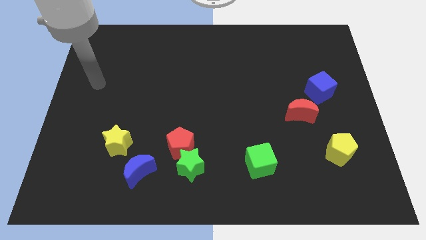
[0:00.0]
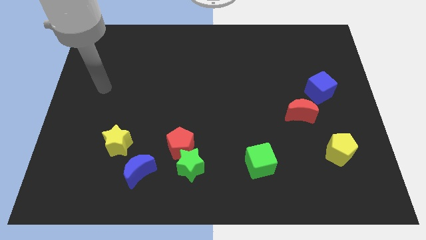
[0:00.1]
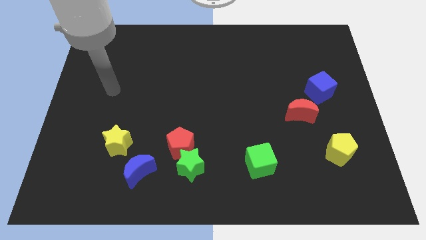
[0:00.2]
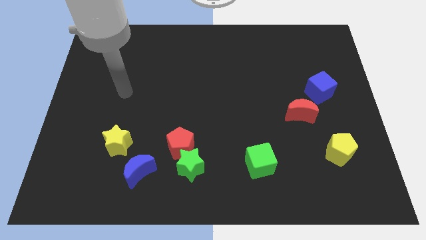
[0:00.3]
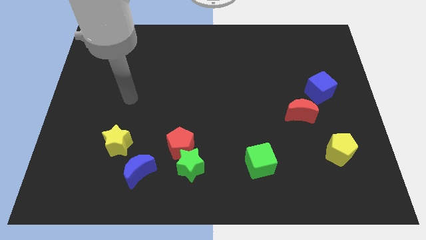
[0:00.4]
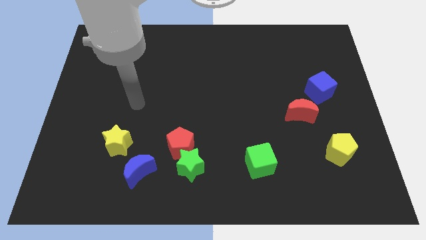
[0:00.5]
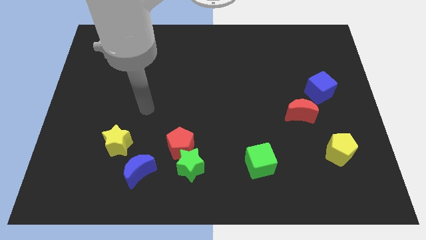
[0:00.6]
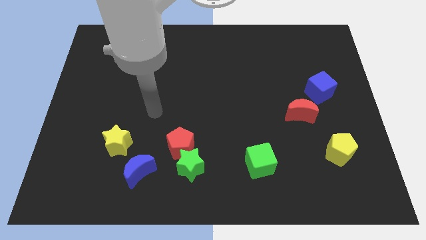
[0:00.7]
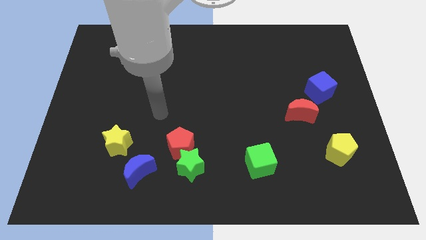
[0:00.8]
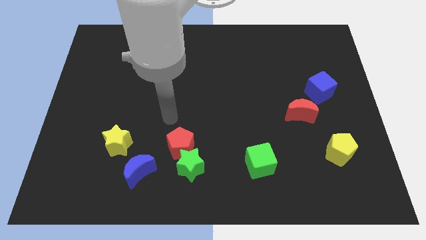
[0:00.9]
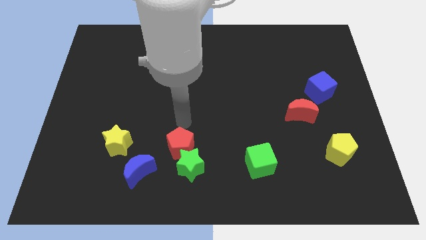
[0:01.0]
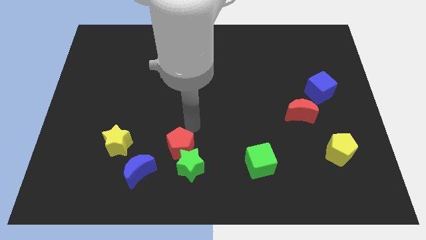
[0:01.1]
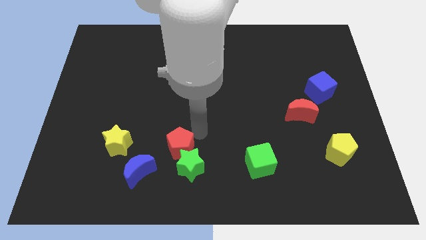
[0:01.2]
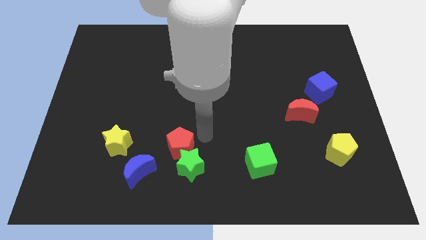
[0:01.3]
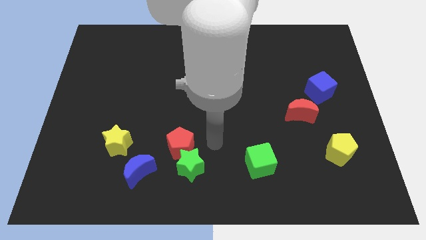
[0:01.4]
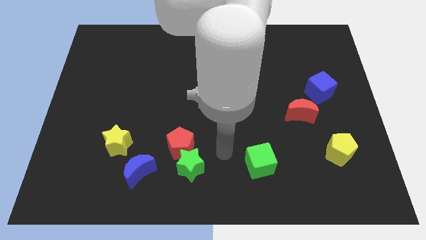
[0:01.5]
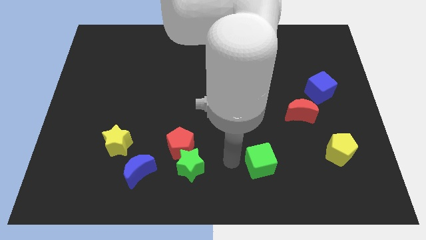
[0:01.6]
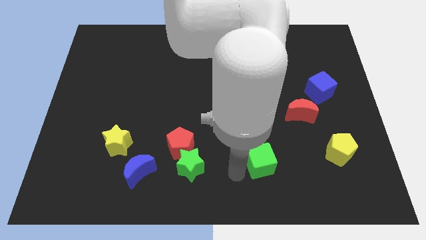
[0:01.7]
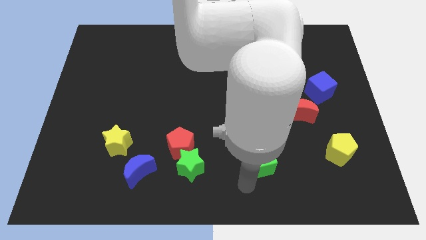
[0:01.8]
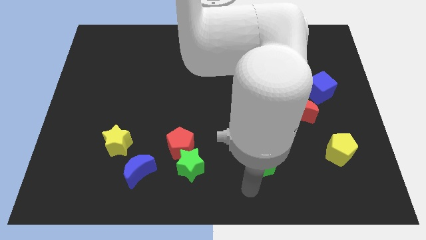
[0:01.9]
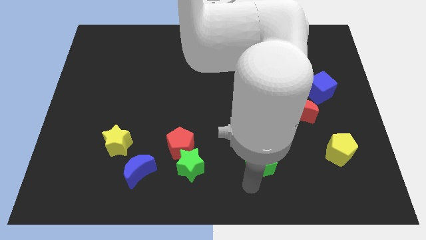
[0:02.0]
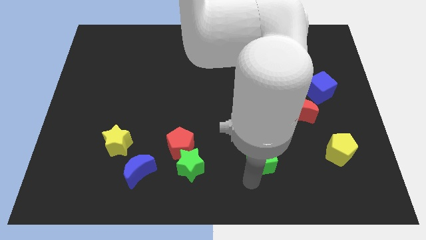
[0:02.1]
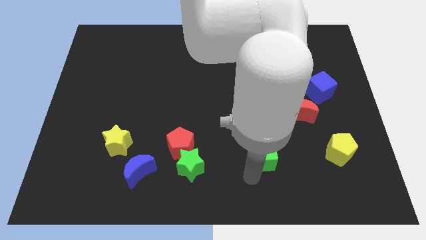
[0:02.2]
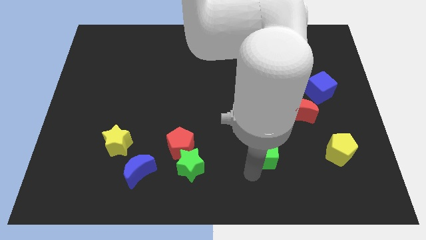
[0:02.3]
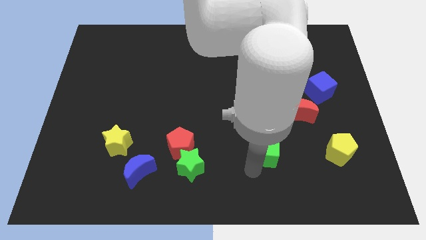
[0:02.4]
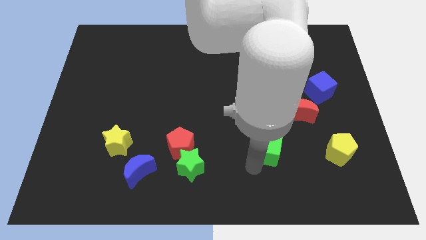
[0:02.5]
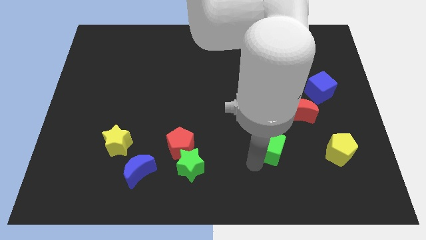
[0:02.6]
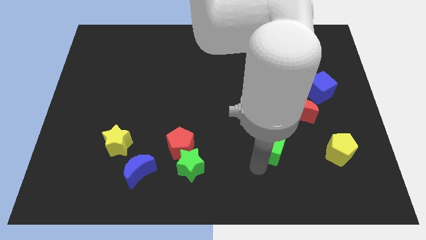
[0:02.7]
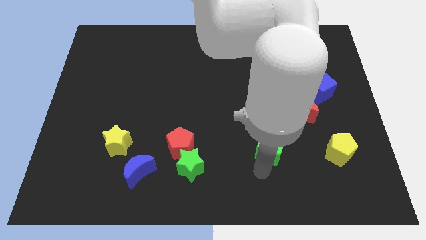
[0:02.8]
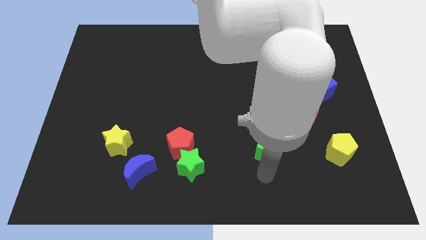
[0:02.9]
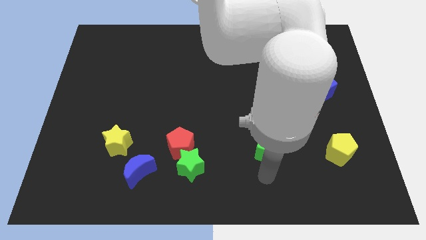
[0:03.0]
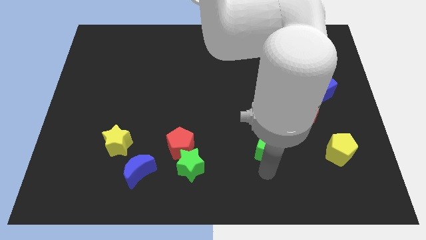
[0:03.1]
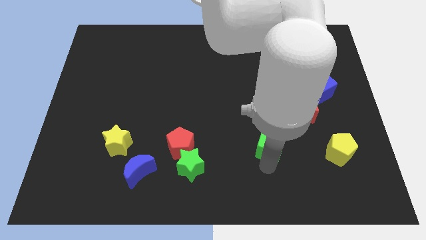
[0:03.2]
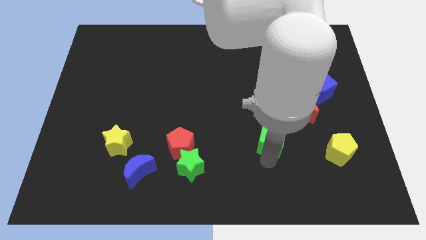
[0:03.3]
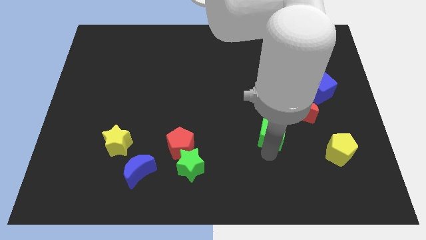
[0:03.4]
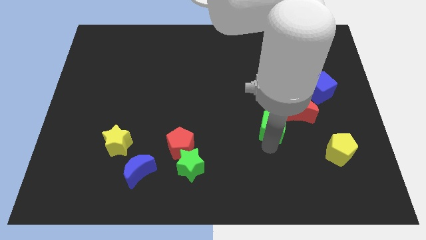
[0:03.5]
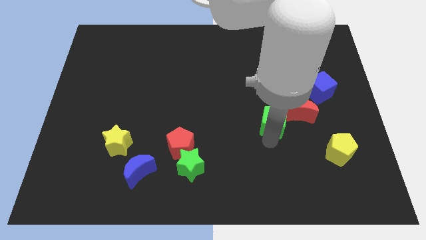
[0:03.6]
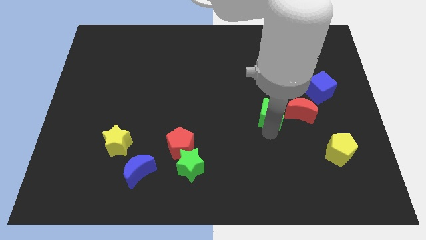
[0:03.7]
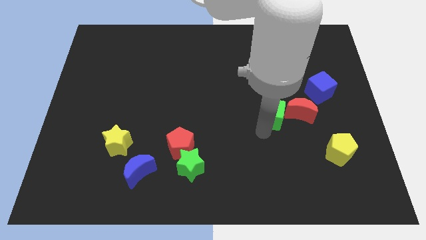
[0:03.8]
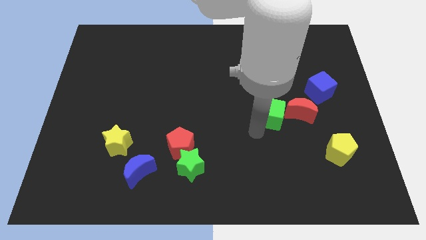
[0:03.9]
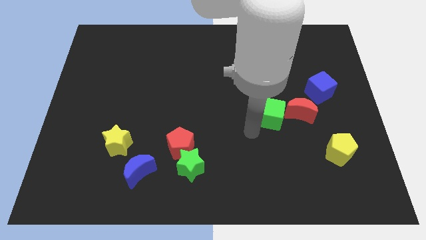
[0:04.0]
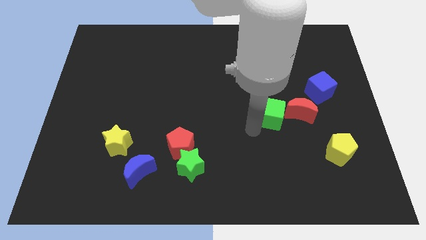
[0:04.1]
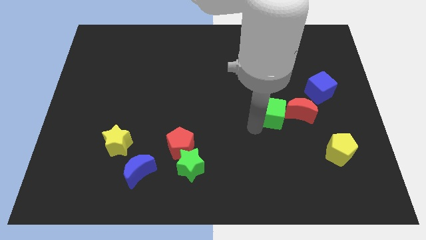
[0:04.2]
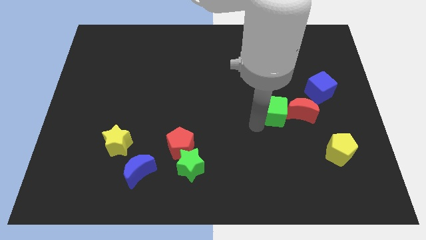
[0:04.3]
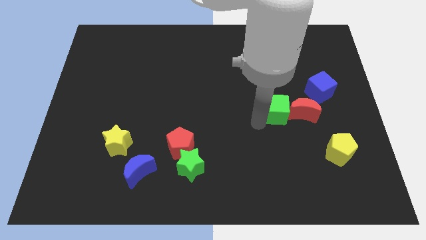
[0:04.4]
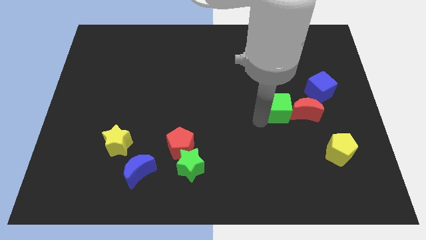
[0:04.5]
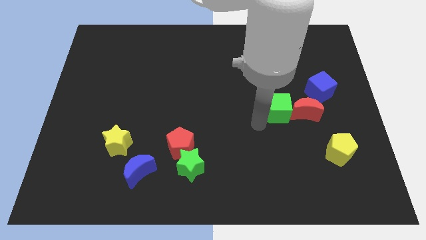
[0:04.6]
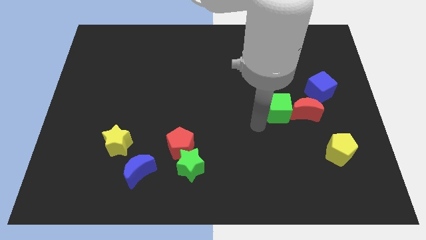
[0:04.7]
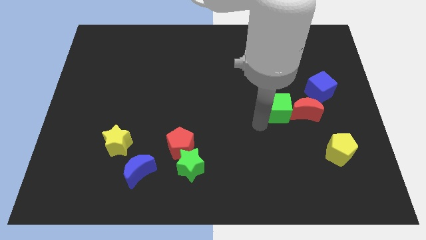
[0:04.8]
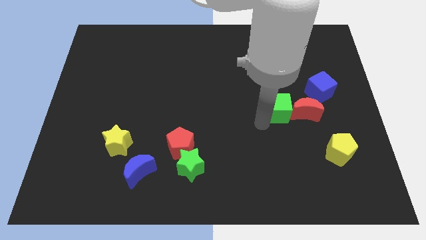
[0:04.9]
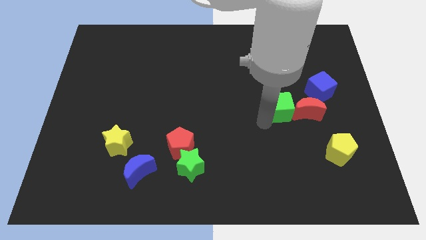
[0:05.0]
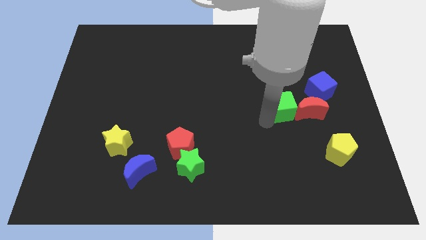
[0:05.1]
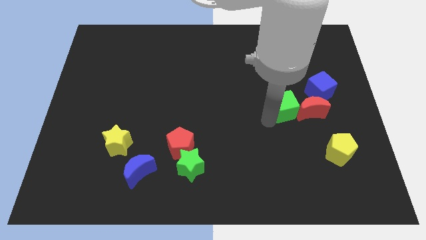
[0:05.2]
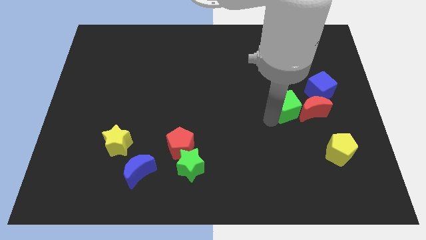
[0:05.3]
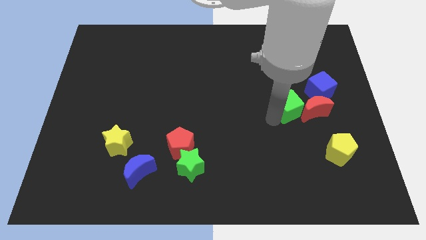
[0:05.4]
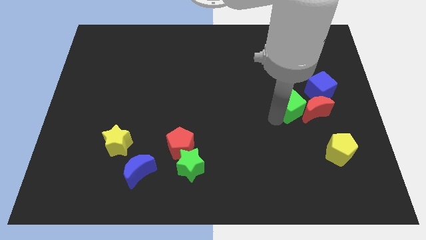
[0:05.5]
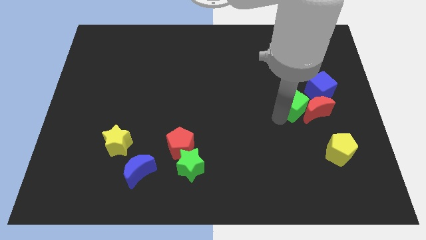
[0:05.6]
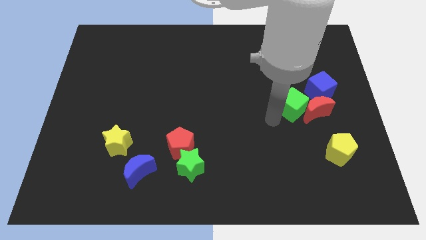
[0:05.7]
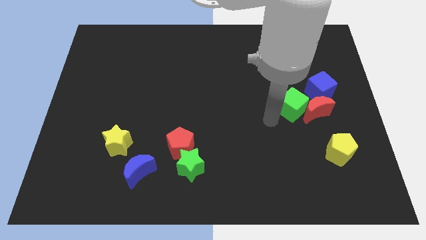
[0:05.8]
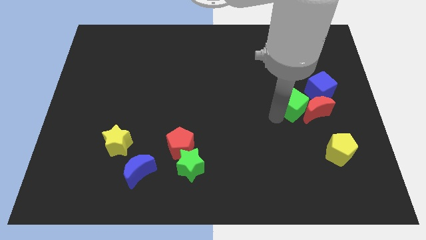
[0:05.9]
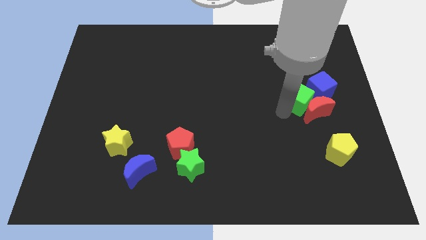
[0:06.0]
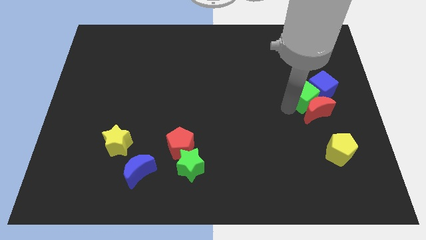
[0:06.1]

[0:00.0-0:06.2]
move the green cube towards the blue cube

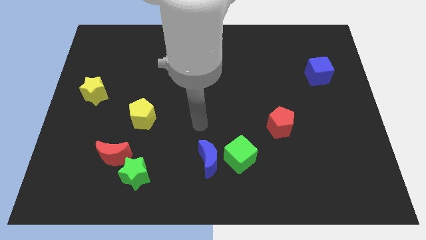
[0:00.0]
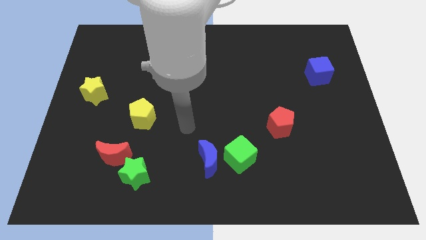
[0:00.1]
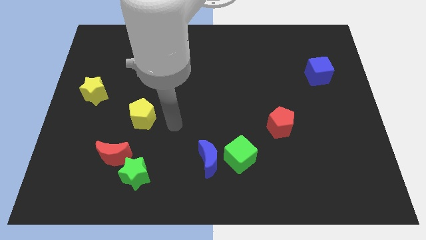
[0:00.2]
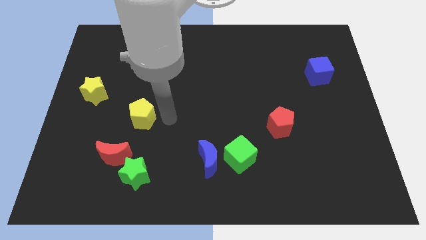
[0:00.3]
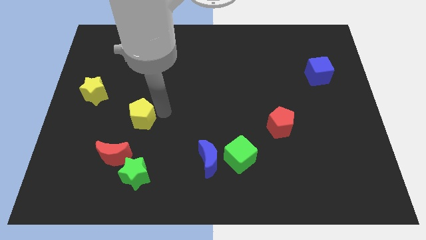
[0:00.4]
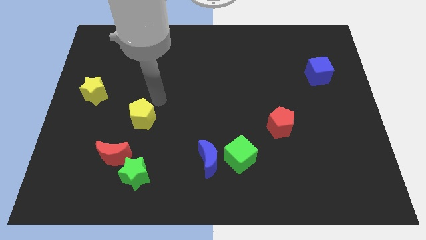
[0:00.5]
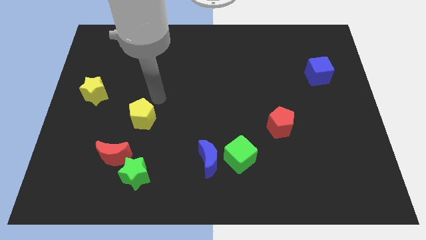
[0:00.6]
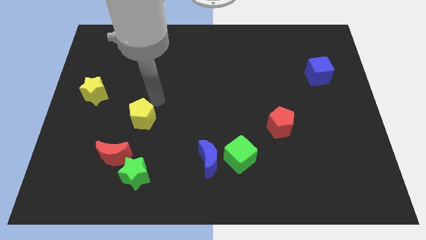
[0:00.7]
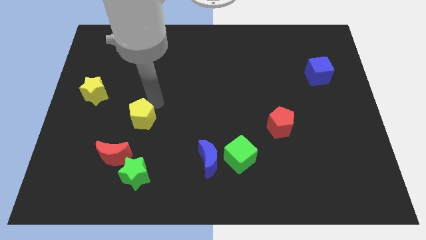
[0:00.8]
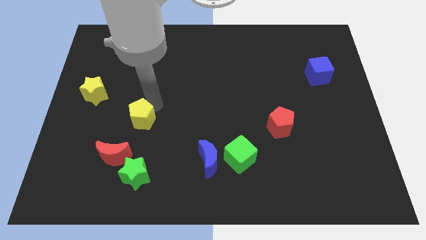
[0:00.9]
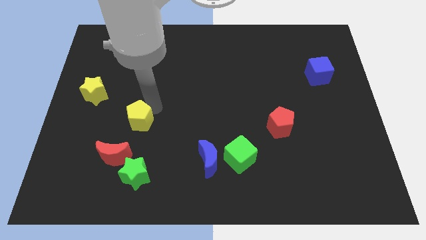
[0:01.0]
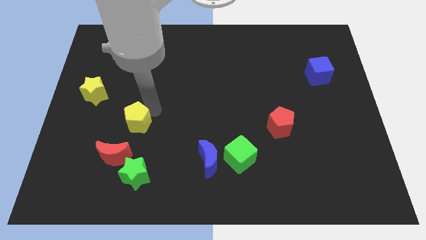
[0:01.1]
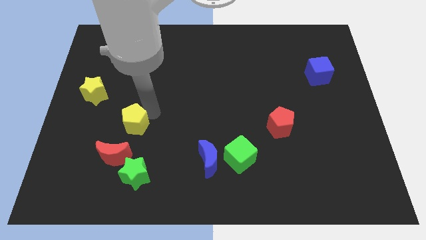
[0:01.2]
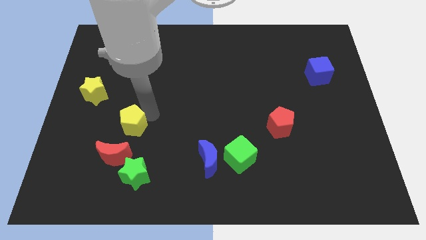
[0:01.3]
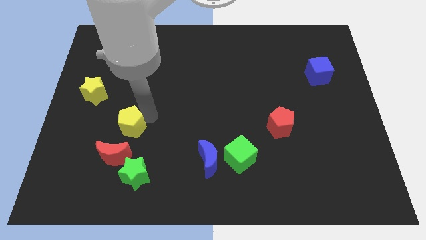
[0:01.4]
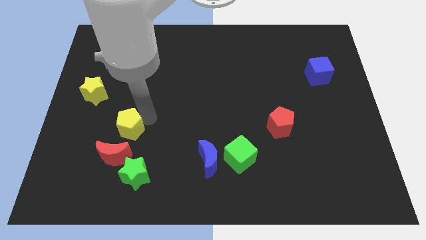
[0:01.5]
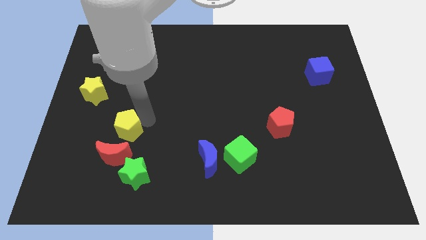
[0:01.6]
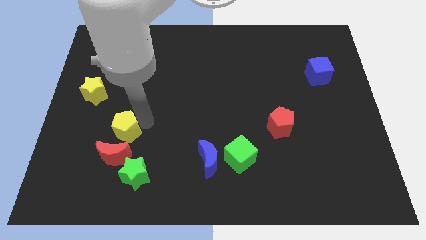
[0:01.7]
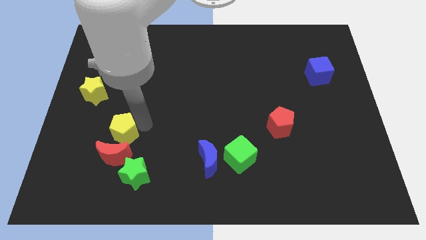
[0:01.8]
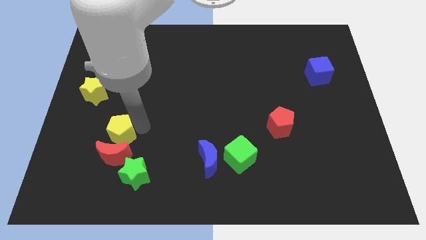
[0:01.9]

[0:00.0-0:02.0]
move the yellow pentagon to the red moon
